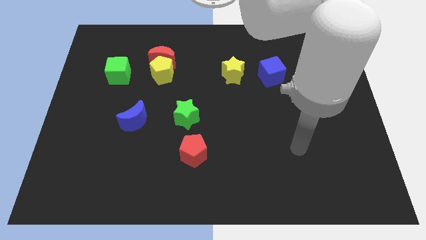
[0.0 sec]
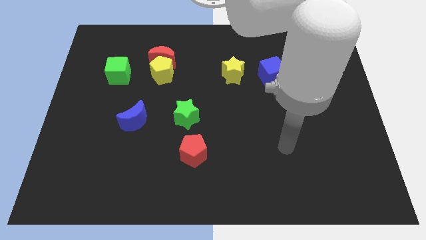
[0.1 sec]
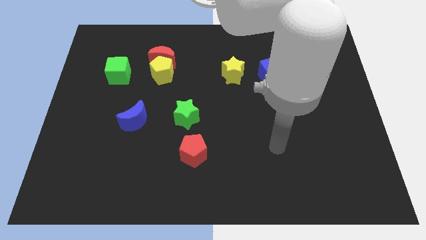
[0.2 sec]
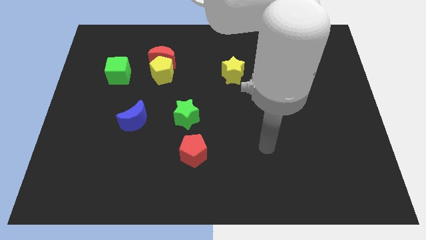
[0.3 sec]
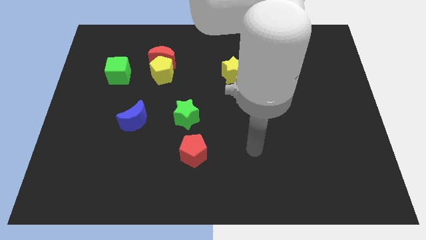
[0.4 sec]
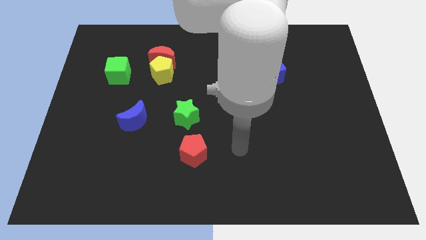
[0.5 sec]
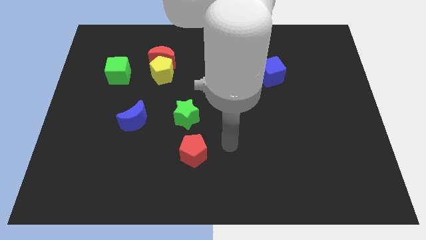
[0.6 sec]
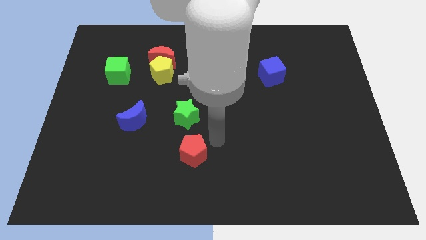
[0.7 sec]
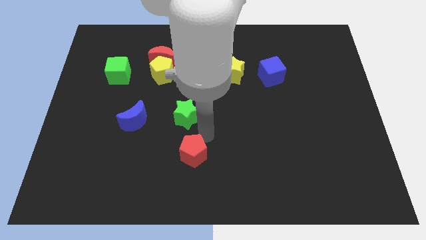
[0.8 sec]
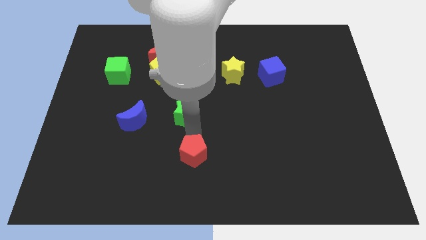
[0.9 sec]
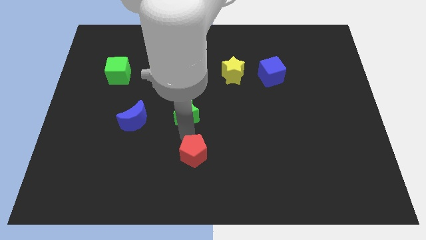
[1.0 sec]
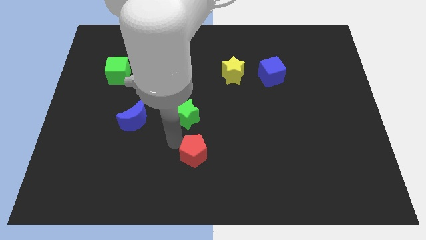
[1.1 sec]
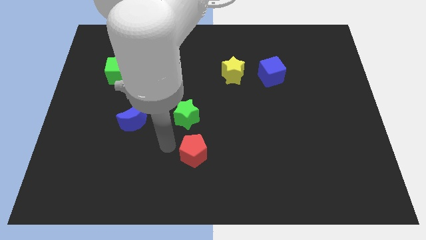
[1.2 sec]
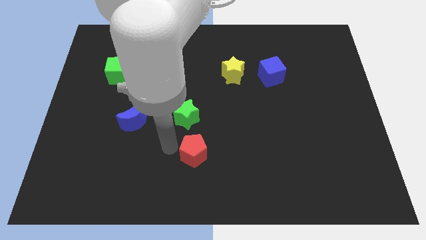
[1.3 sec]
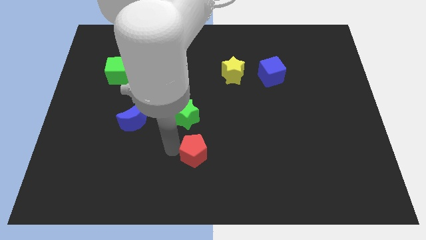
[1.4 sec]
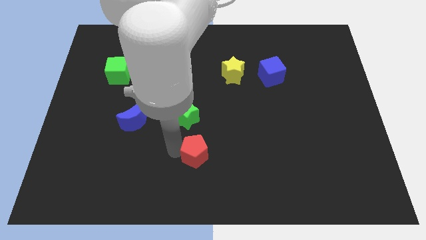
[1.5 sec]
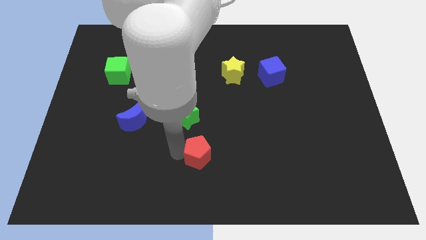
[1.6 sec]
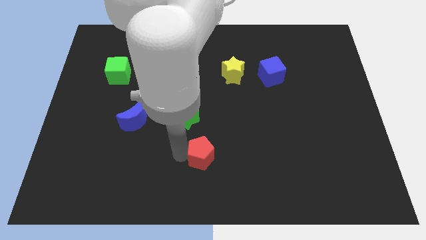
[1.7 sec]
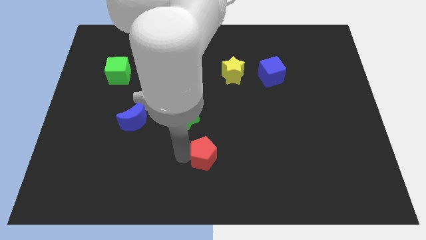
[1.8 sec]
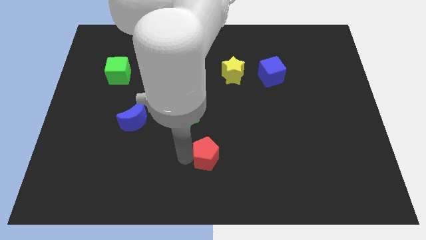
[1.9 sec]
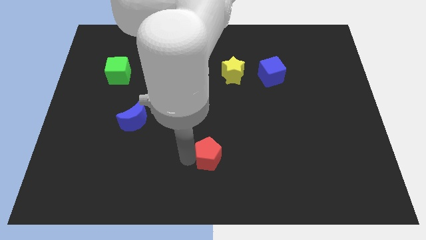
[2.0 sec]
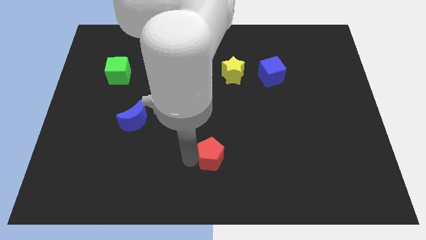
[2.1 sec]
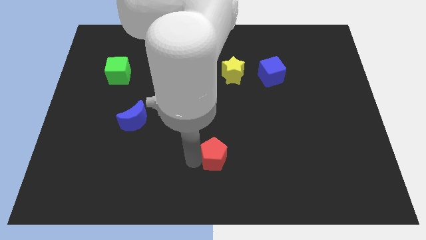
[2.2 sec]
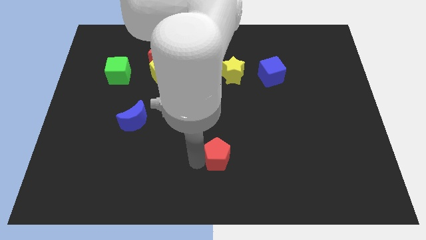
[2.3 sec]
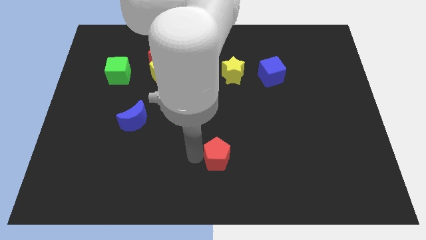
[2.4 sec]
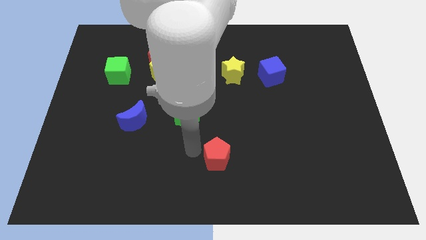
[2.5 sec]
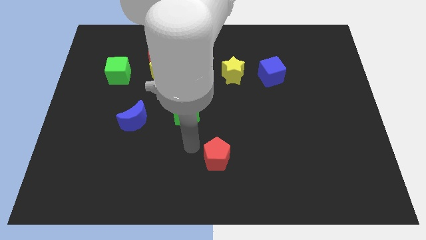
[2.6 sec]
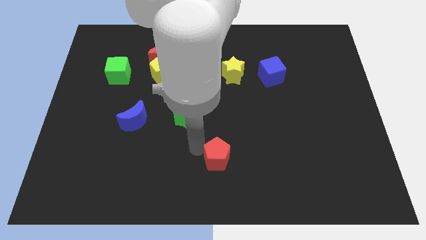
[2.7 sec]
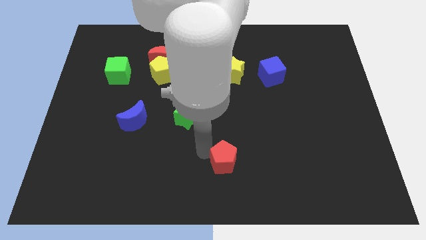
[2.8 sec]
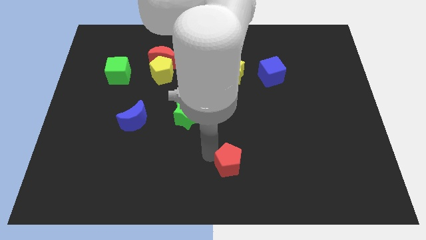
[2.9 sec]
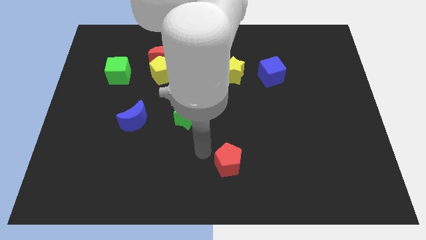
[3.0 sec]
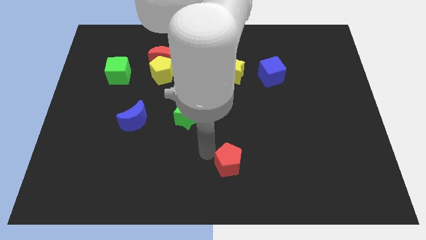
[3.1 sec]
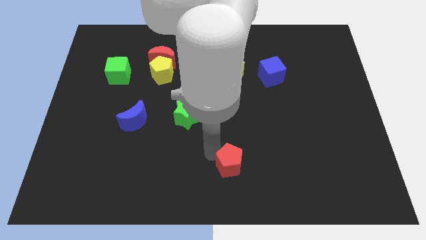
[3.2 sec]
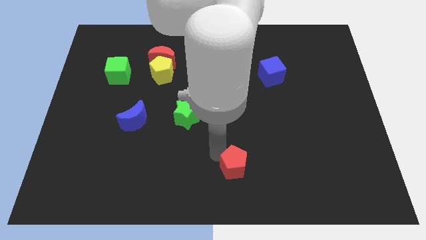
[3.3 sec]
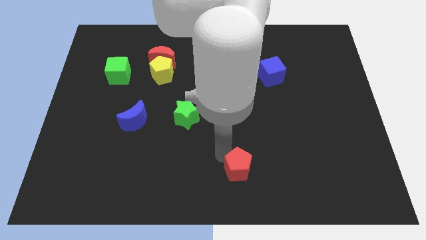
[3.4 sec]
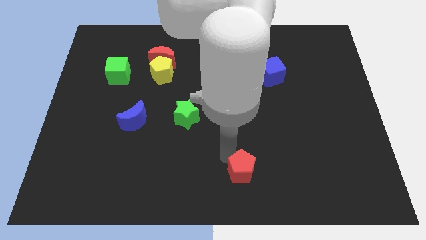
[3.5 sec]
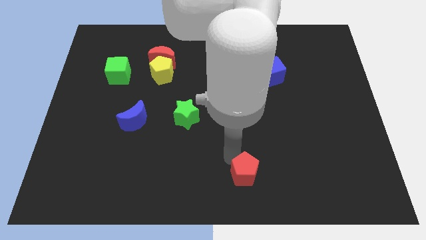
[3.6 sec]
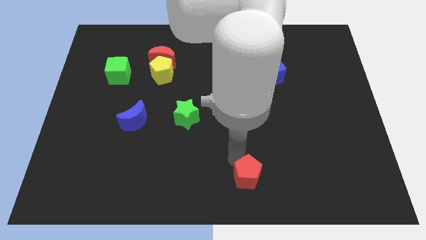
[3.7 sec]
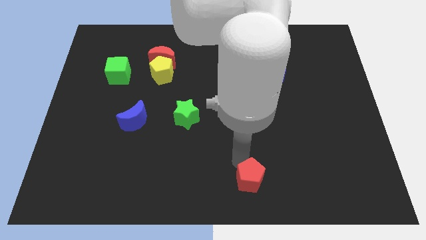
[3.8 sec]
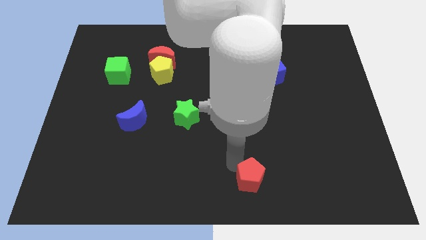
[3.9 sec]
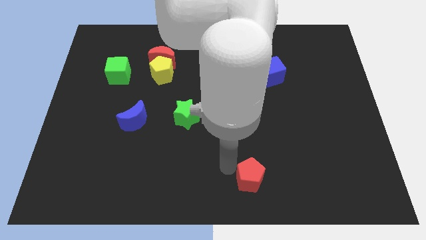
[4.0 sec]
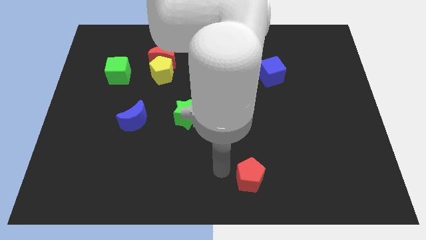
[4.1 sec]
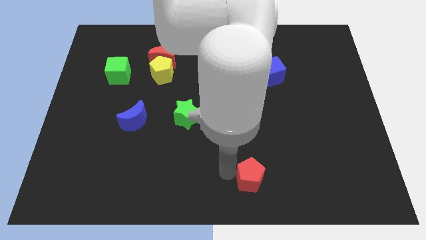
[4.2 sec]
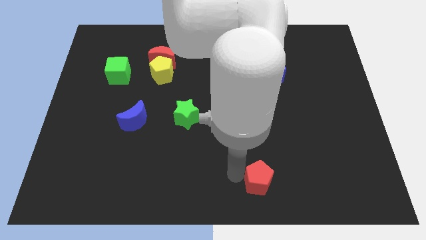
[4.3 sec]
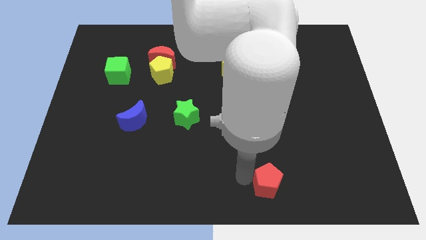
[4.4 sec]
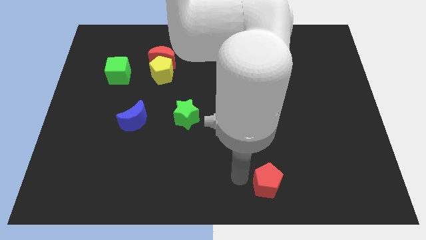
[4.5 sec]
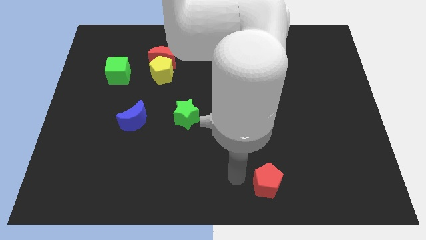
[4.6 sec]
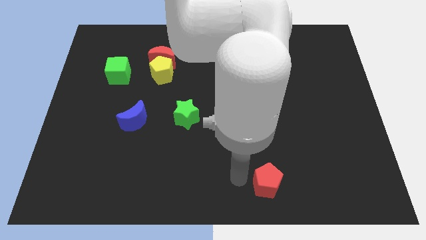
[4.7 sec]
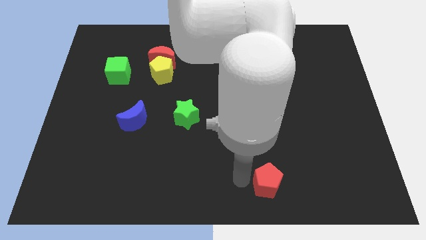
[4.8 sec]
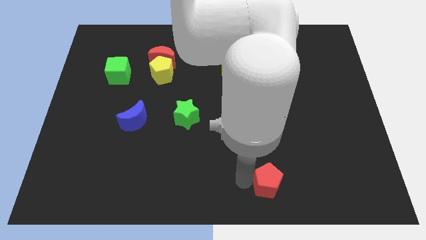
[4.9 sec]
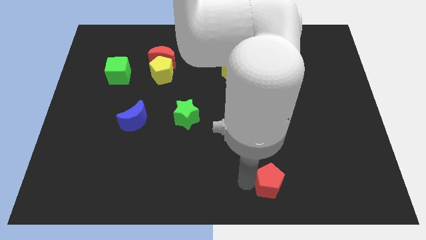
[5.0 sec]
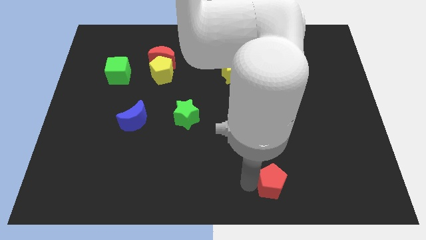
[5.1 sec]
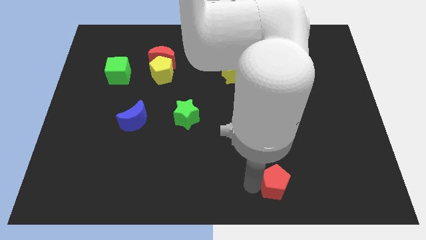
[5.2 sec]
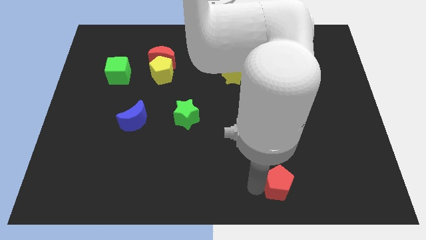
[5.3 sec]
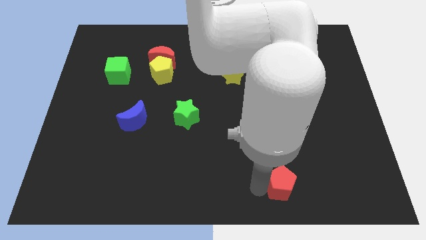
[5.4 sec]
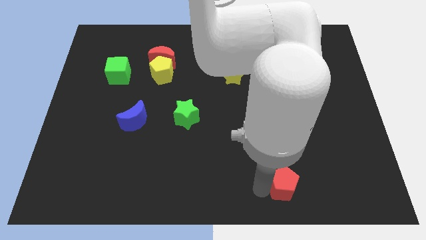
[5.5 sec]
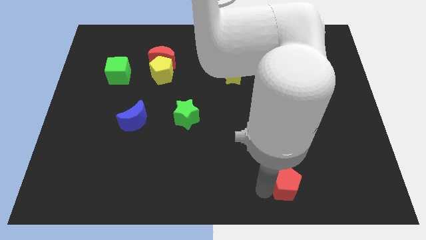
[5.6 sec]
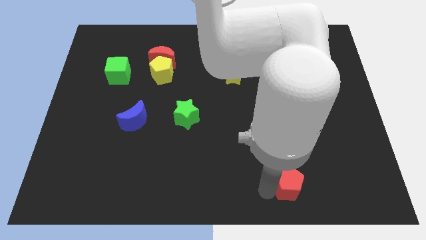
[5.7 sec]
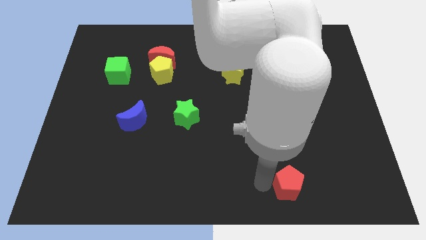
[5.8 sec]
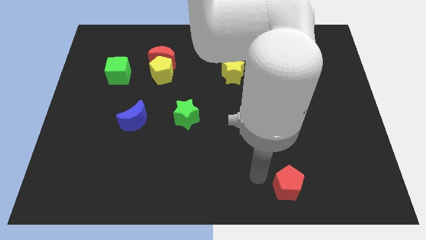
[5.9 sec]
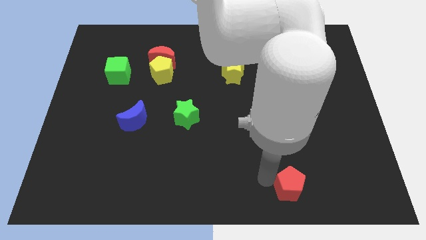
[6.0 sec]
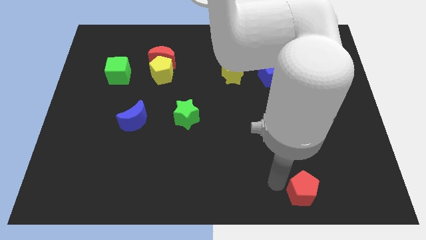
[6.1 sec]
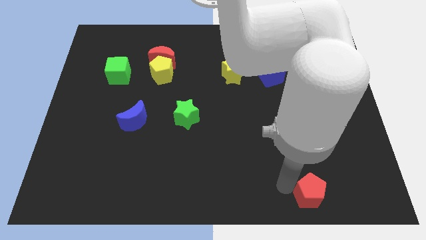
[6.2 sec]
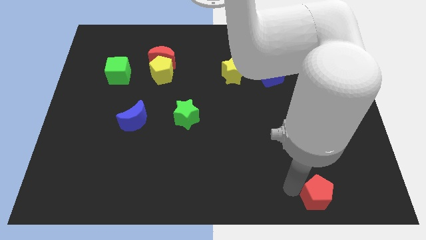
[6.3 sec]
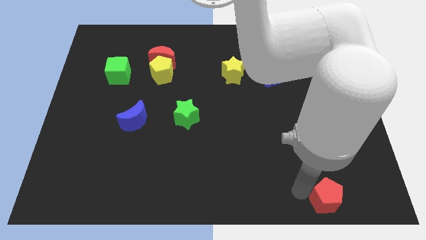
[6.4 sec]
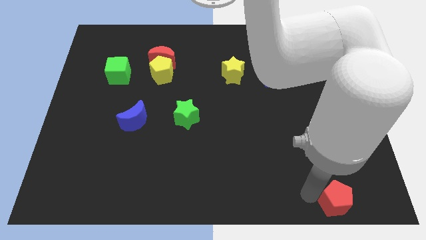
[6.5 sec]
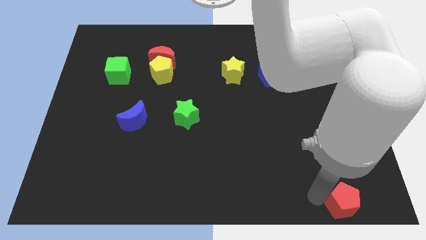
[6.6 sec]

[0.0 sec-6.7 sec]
put the red pentagon to the lower right corner
